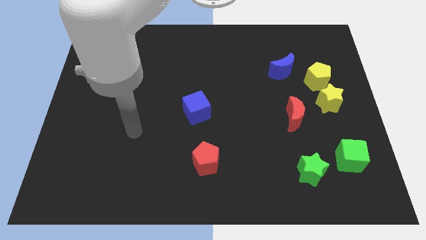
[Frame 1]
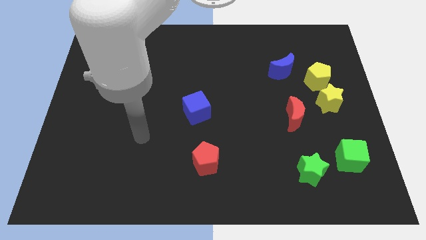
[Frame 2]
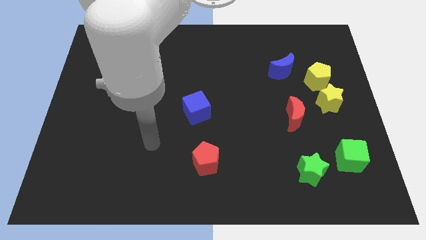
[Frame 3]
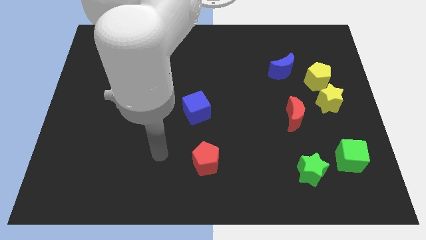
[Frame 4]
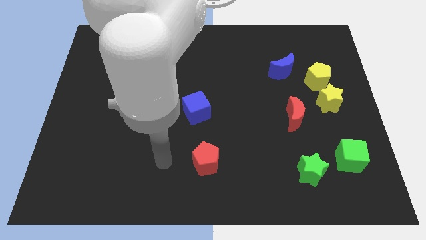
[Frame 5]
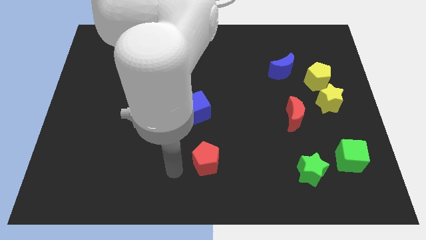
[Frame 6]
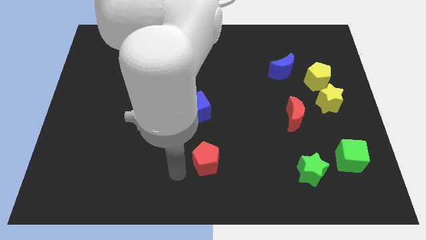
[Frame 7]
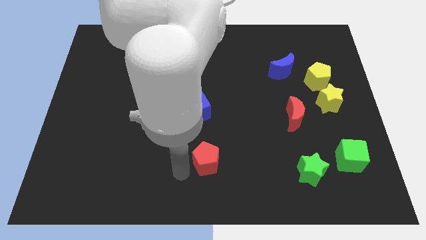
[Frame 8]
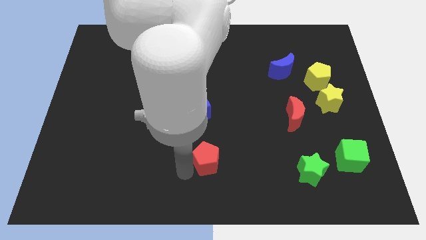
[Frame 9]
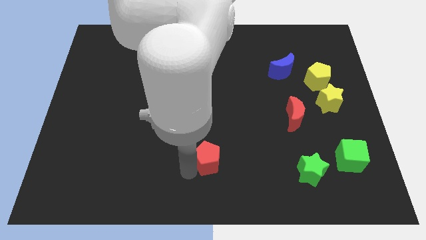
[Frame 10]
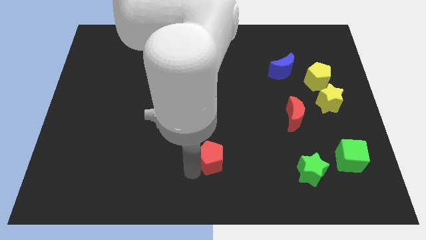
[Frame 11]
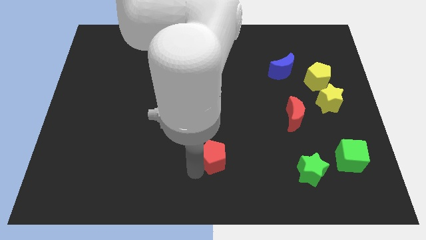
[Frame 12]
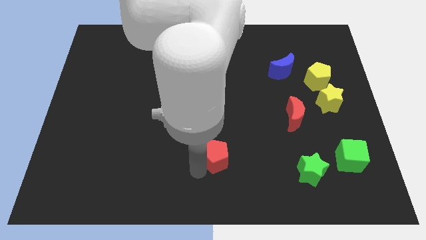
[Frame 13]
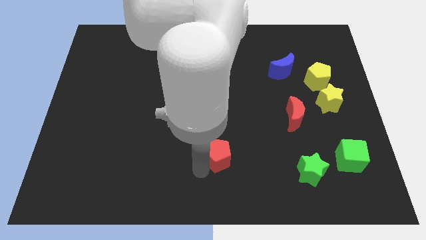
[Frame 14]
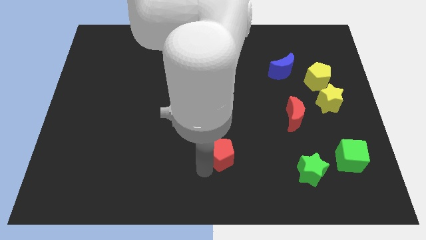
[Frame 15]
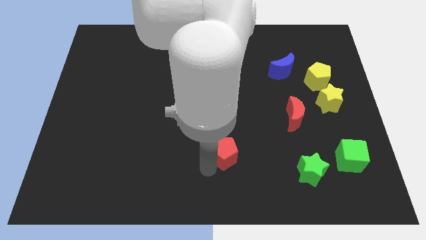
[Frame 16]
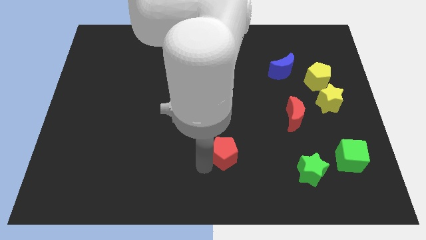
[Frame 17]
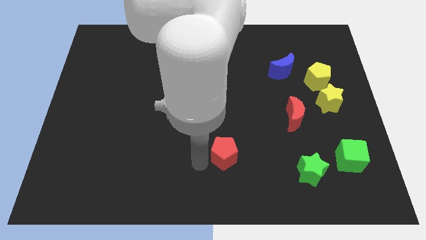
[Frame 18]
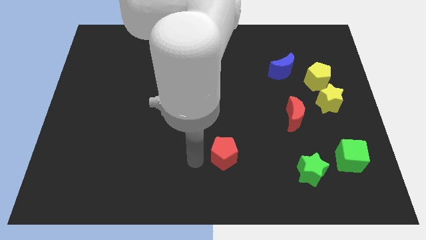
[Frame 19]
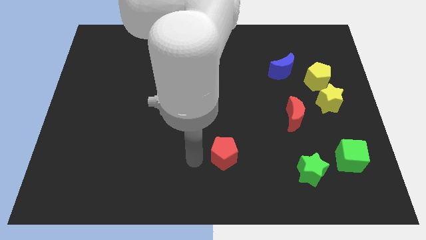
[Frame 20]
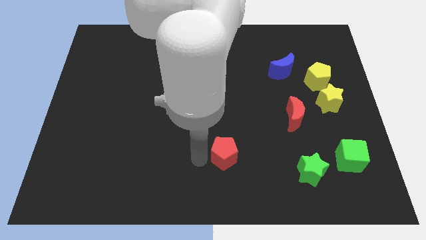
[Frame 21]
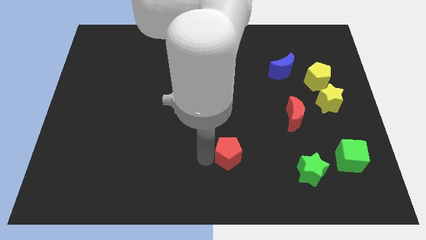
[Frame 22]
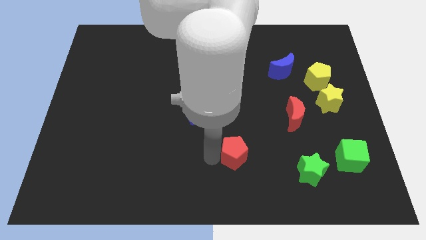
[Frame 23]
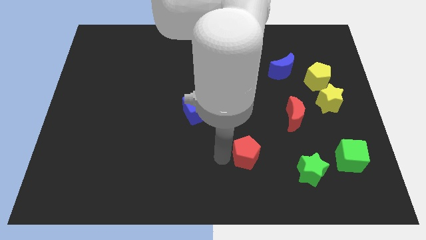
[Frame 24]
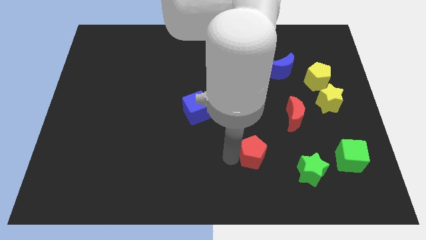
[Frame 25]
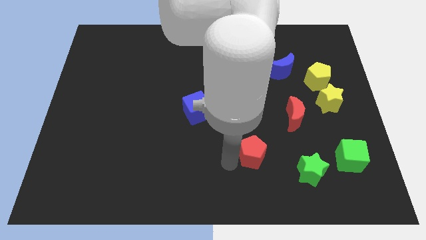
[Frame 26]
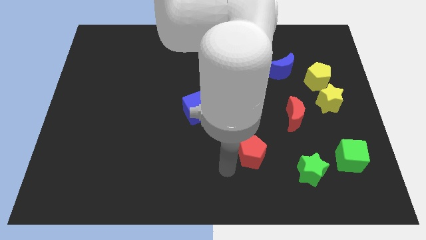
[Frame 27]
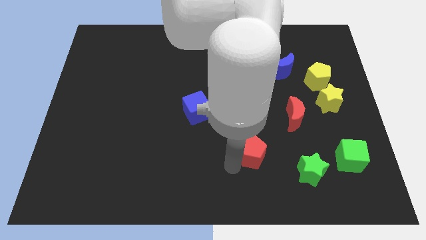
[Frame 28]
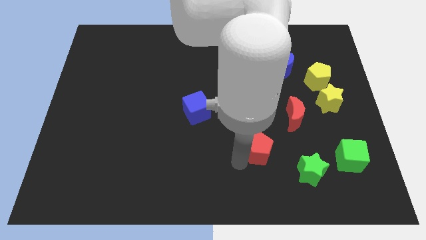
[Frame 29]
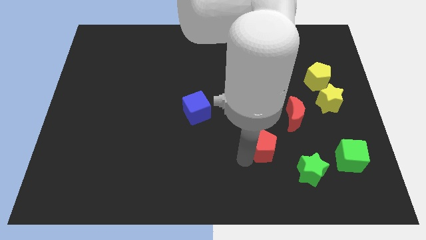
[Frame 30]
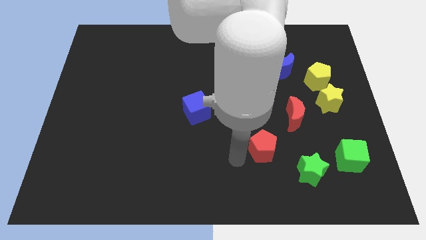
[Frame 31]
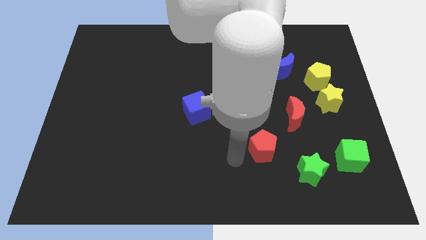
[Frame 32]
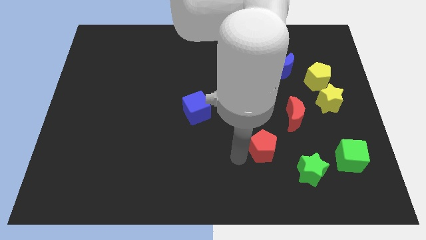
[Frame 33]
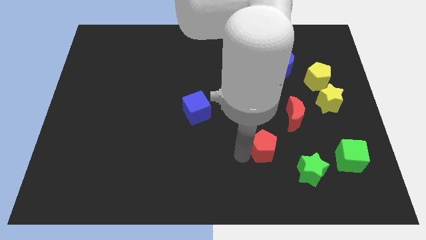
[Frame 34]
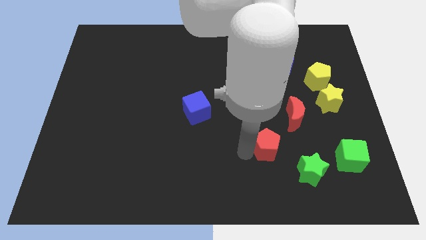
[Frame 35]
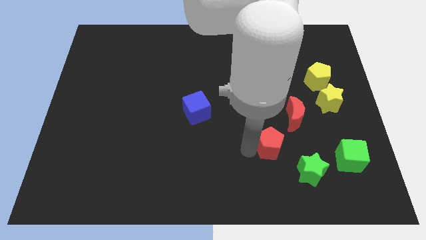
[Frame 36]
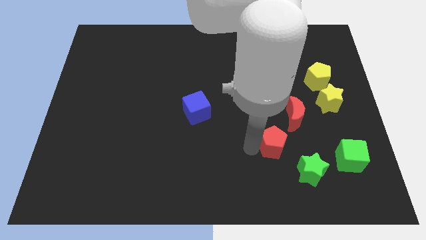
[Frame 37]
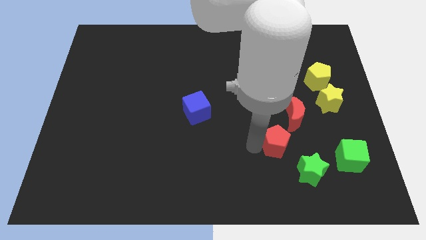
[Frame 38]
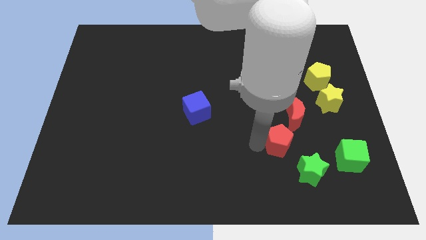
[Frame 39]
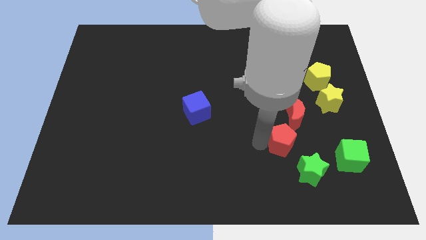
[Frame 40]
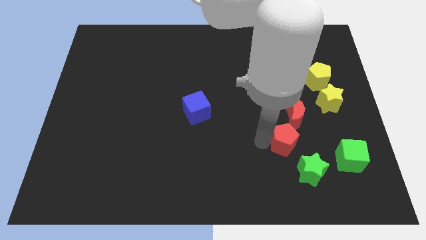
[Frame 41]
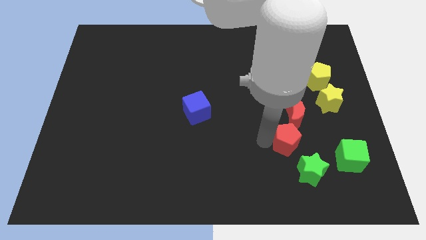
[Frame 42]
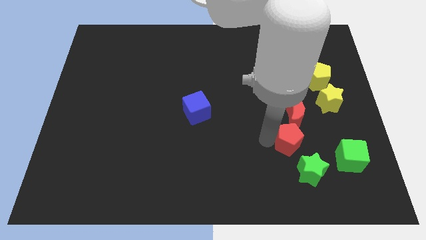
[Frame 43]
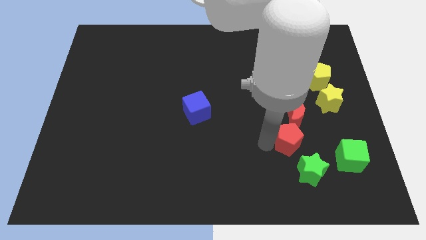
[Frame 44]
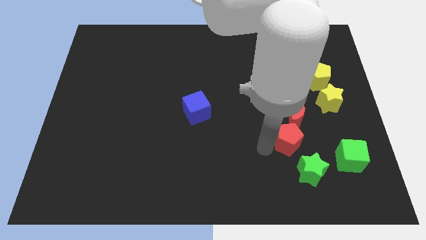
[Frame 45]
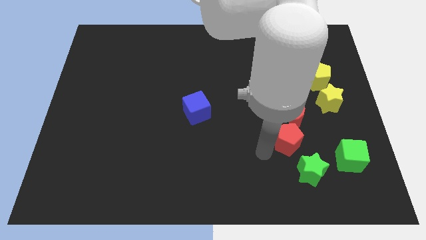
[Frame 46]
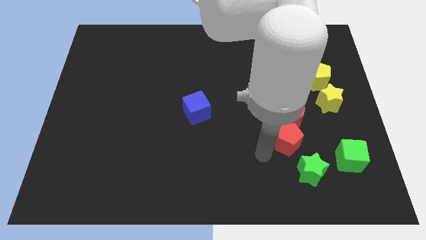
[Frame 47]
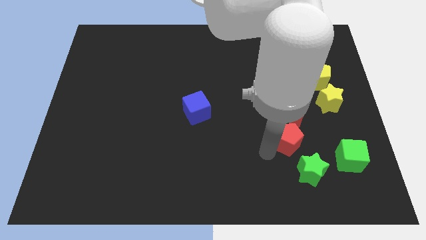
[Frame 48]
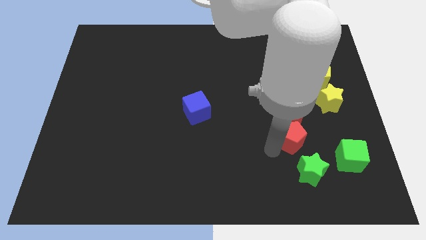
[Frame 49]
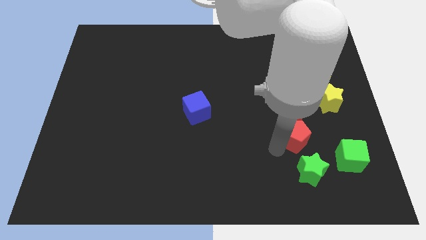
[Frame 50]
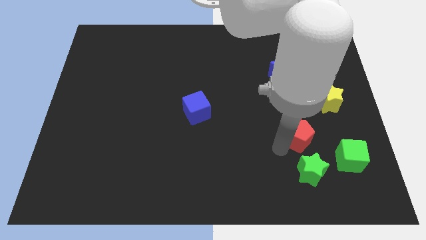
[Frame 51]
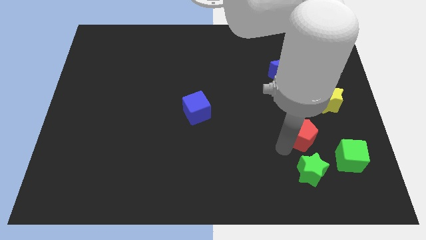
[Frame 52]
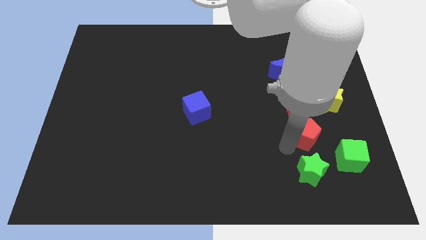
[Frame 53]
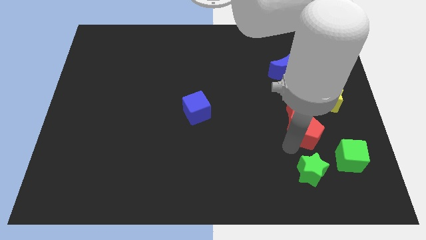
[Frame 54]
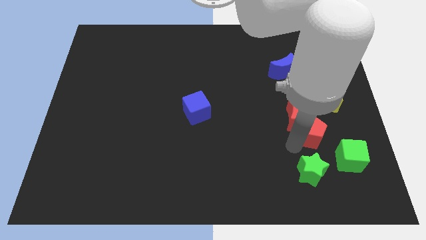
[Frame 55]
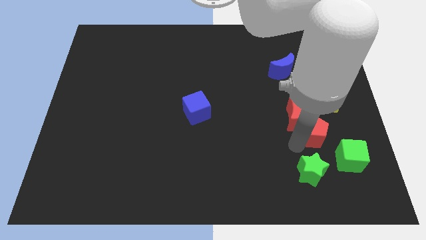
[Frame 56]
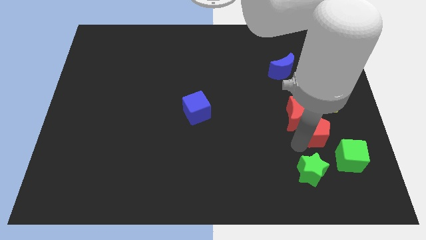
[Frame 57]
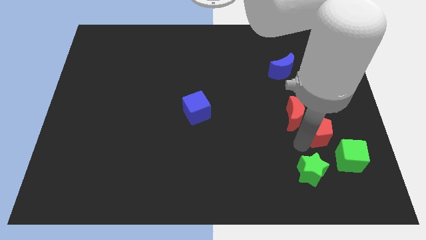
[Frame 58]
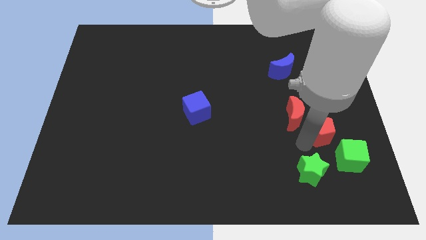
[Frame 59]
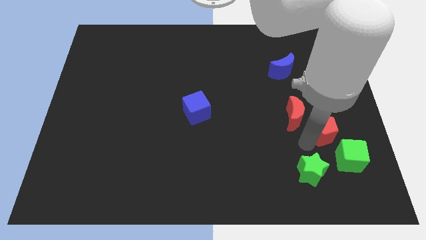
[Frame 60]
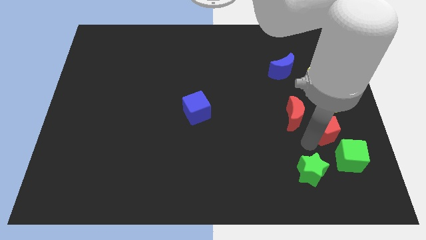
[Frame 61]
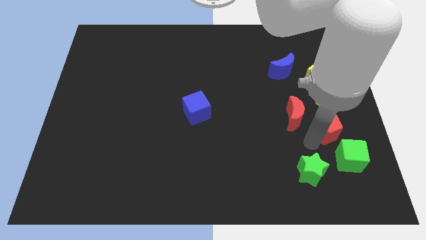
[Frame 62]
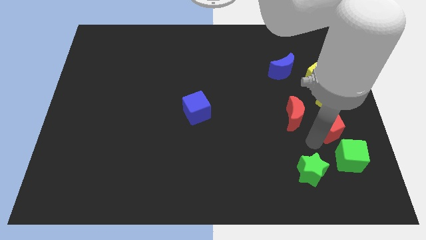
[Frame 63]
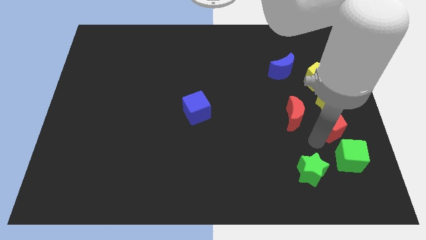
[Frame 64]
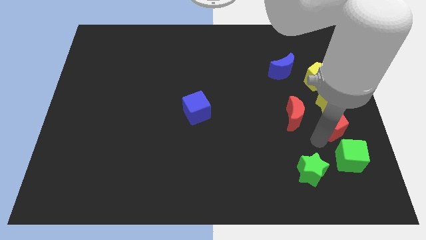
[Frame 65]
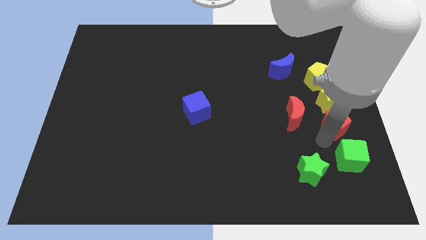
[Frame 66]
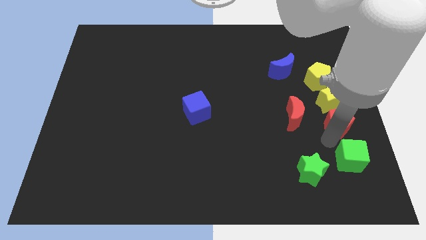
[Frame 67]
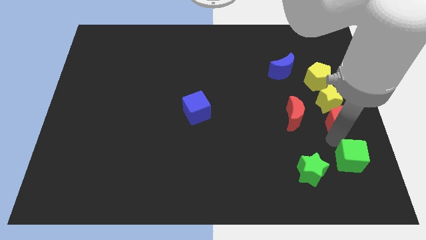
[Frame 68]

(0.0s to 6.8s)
slide the red pentagon towards the yellow star
